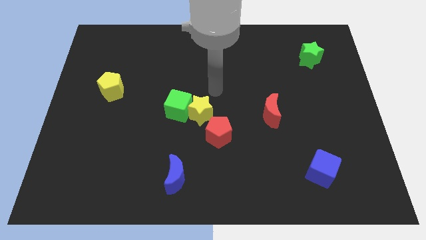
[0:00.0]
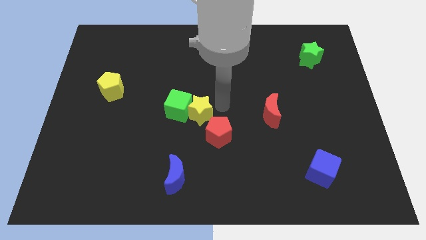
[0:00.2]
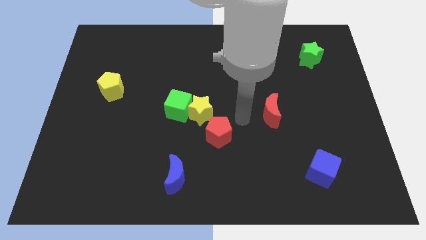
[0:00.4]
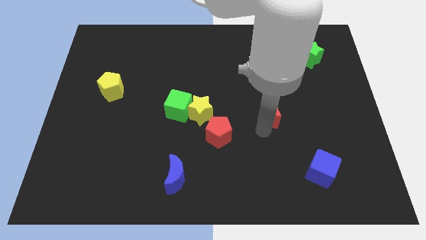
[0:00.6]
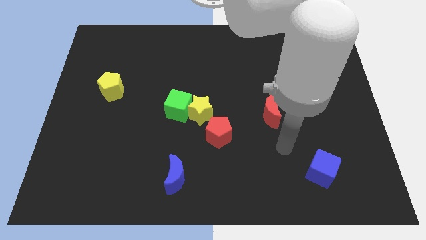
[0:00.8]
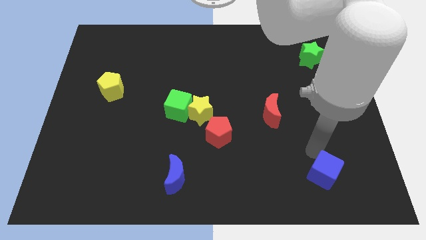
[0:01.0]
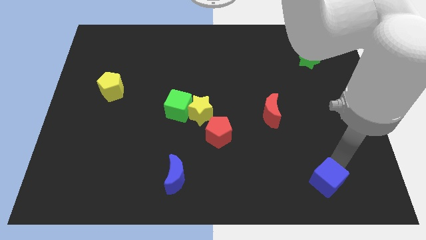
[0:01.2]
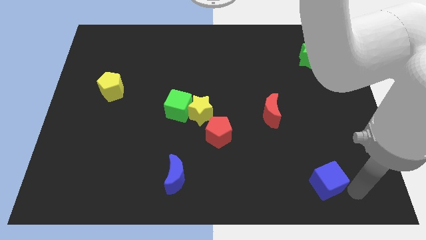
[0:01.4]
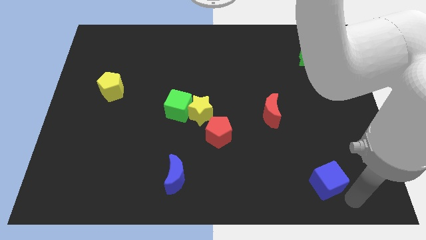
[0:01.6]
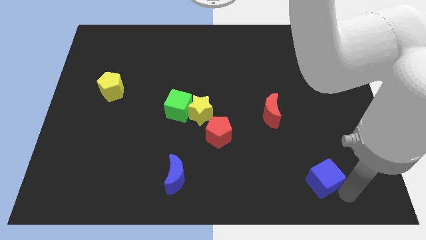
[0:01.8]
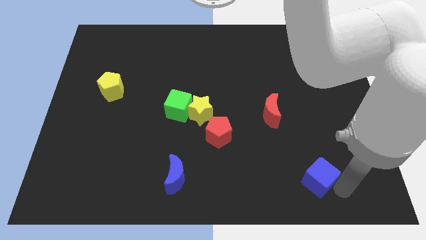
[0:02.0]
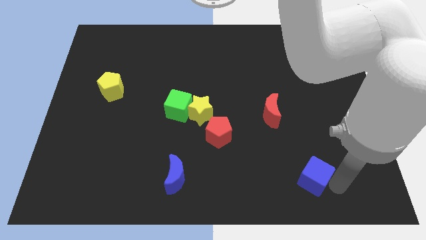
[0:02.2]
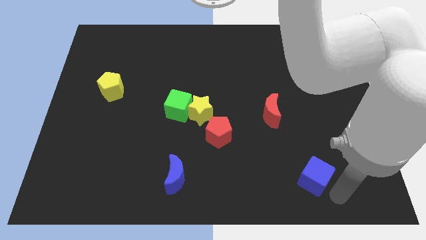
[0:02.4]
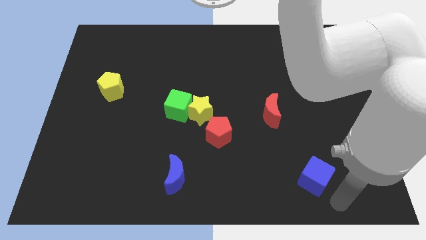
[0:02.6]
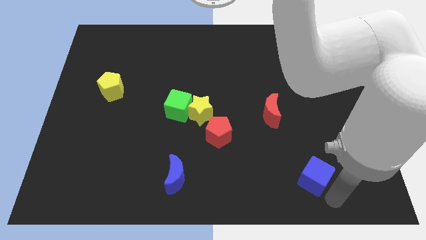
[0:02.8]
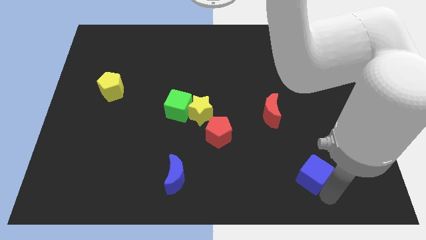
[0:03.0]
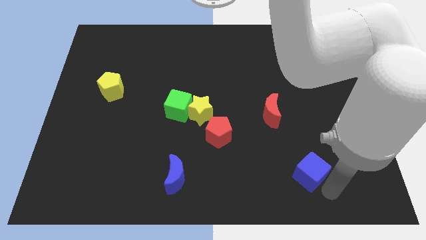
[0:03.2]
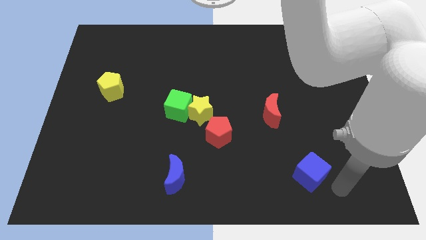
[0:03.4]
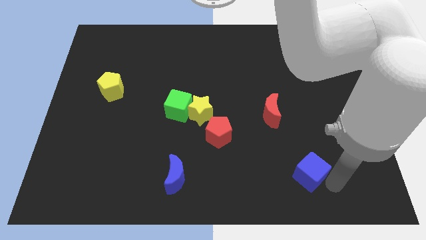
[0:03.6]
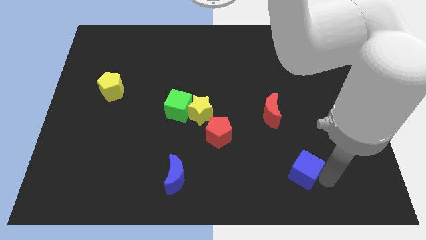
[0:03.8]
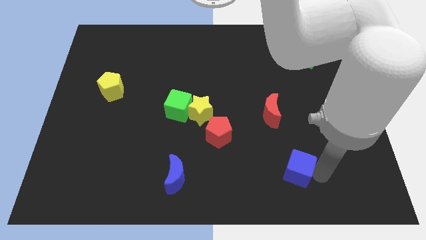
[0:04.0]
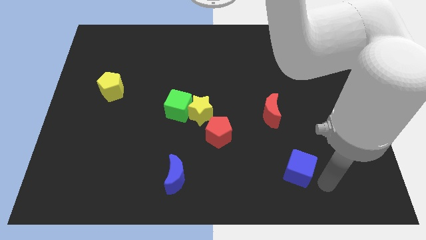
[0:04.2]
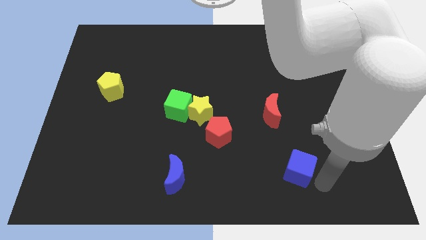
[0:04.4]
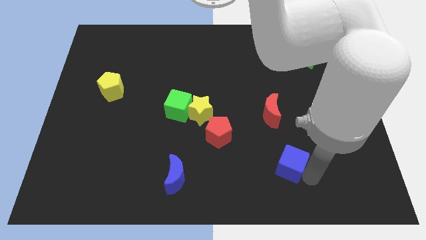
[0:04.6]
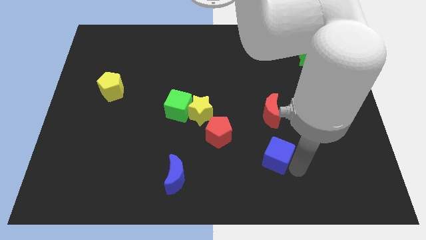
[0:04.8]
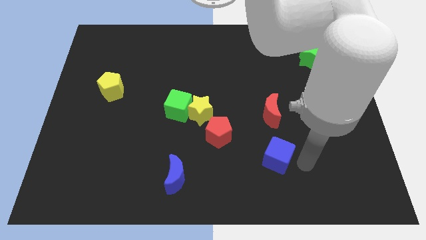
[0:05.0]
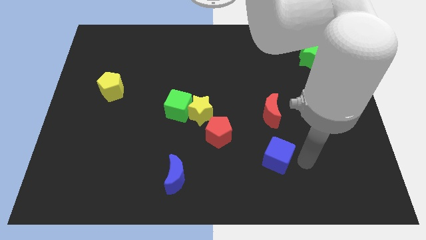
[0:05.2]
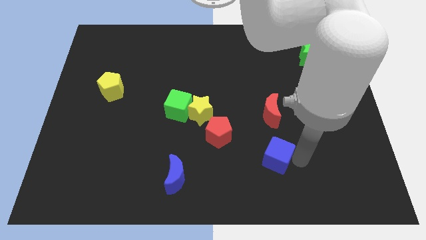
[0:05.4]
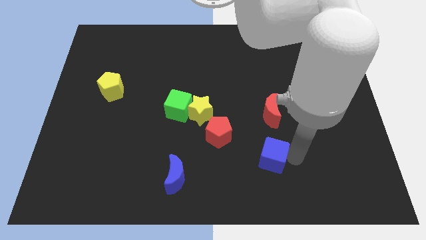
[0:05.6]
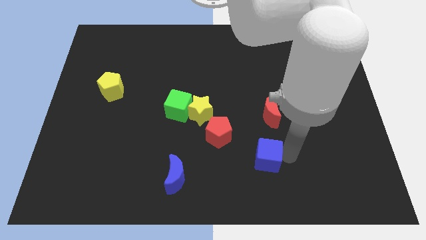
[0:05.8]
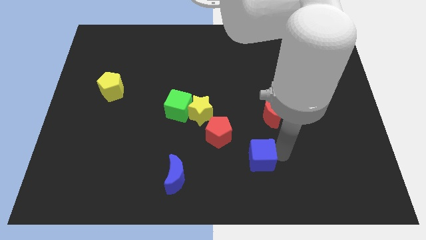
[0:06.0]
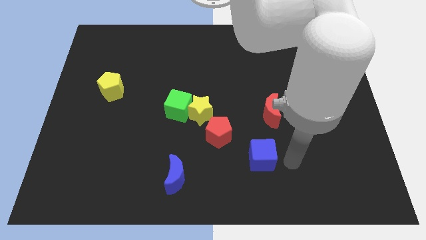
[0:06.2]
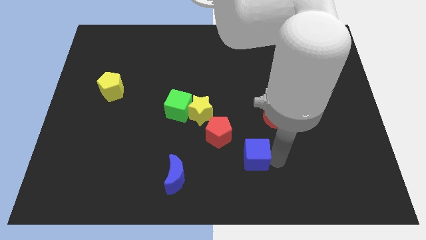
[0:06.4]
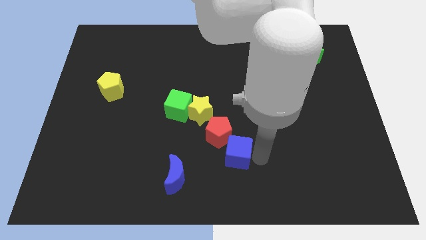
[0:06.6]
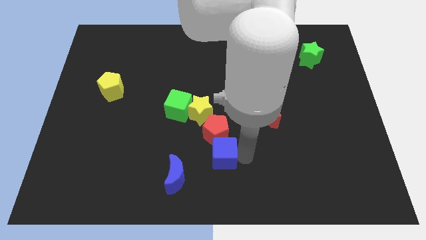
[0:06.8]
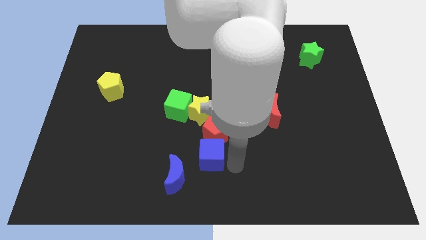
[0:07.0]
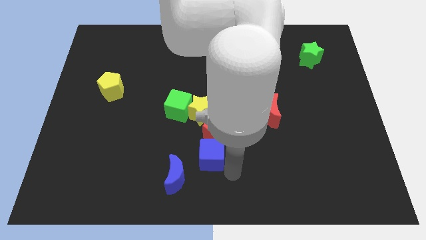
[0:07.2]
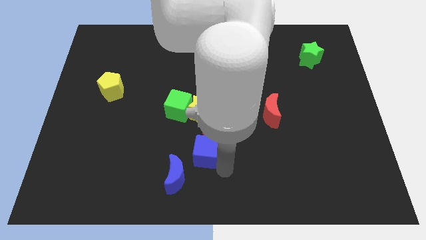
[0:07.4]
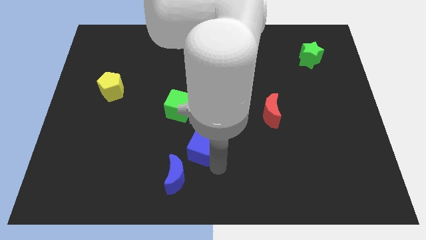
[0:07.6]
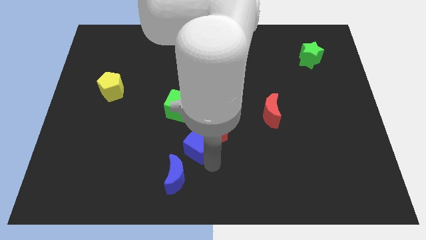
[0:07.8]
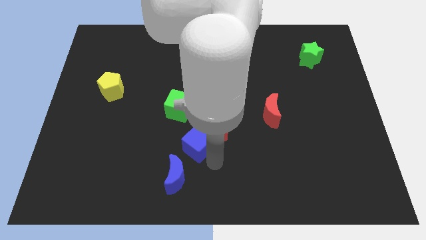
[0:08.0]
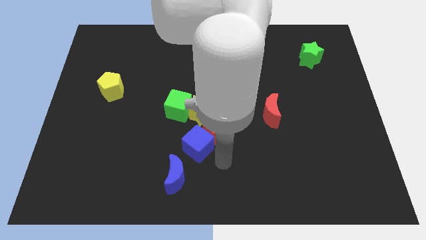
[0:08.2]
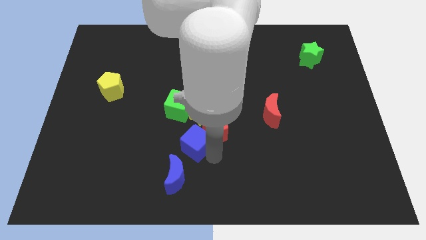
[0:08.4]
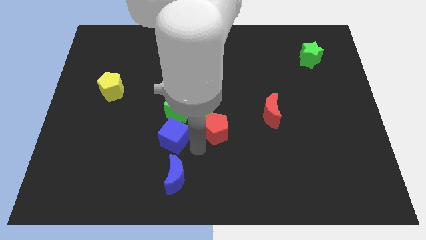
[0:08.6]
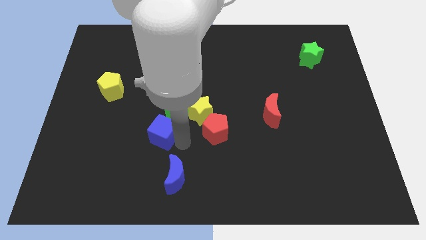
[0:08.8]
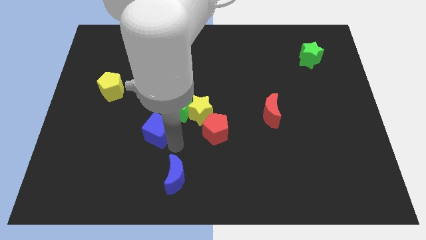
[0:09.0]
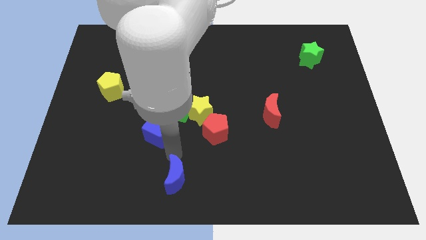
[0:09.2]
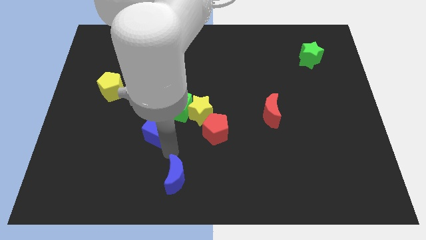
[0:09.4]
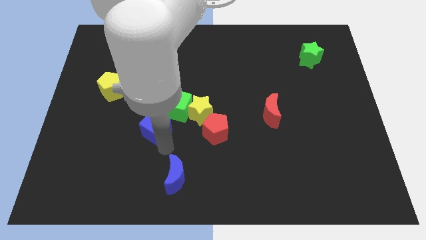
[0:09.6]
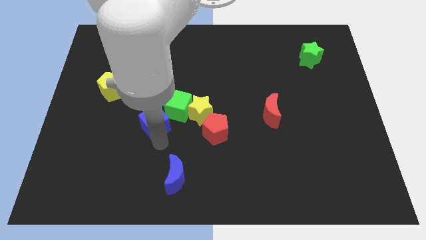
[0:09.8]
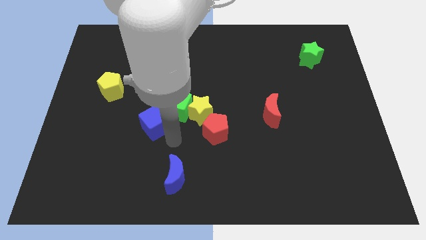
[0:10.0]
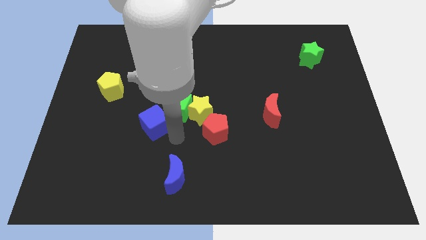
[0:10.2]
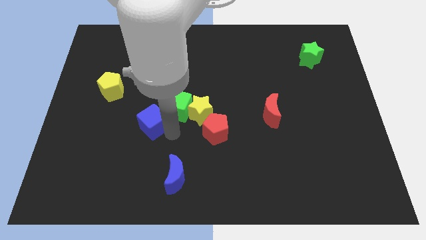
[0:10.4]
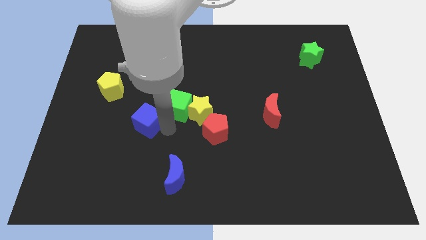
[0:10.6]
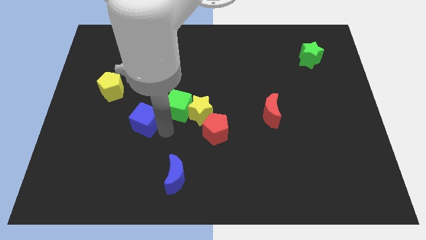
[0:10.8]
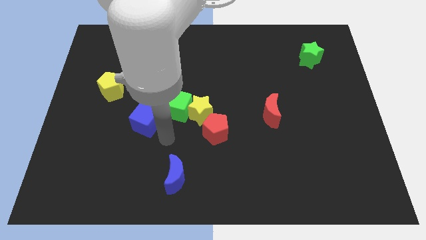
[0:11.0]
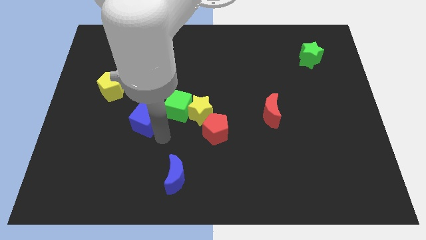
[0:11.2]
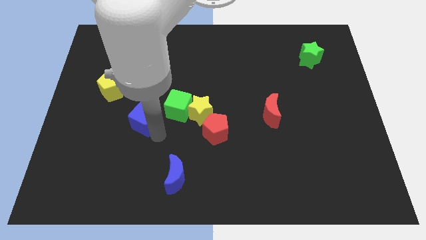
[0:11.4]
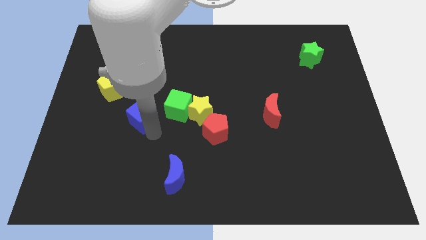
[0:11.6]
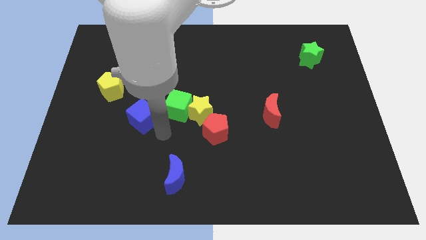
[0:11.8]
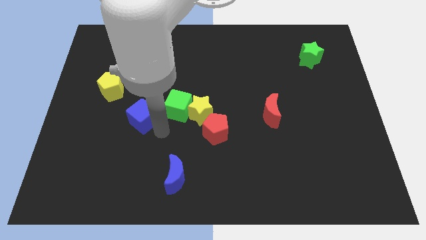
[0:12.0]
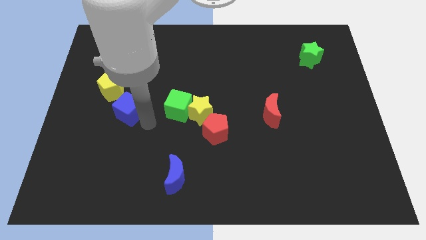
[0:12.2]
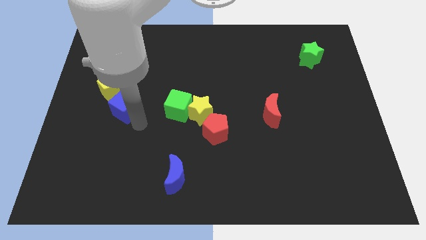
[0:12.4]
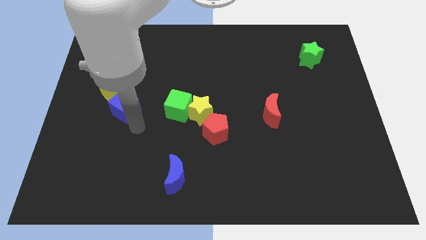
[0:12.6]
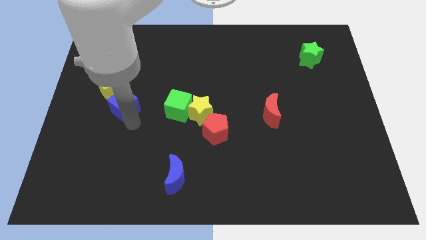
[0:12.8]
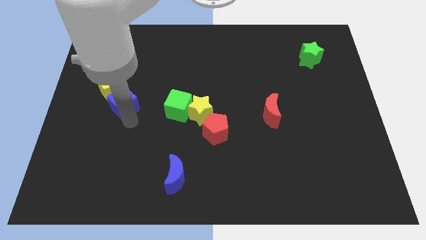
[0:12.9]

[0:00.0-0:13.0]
move the blue cube next to the yellow pentagon

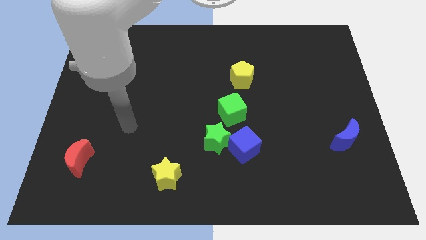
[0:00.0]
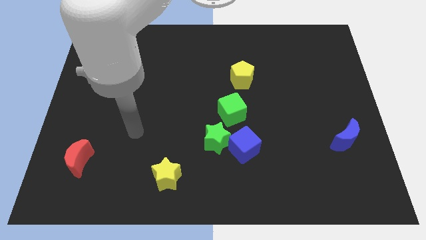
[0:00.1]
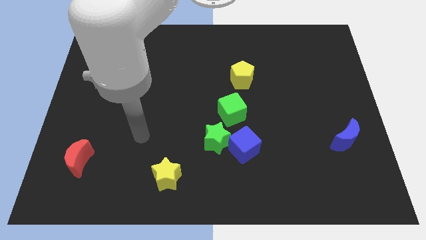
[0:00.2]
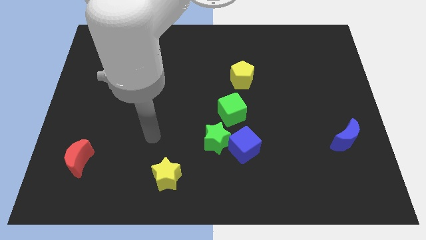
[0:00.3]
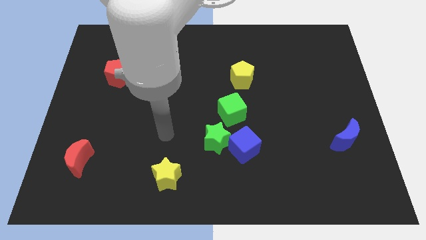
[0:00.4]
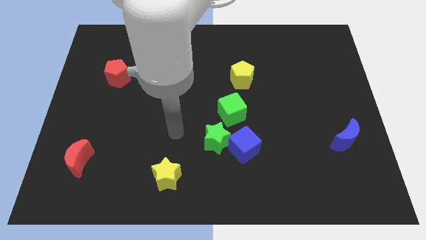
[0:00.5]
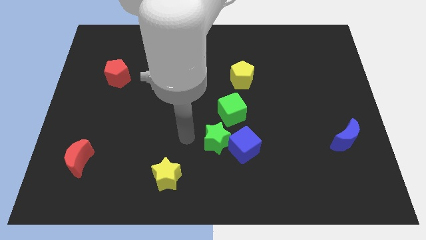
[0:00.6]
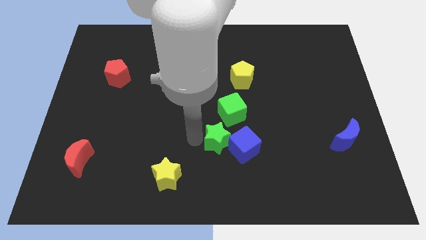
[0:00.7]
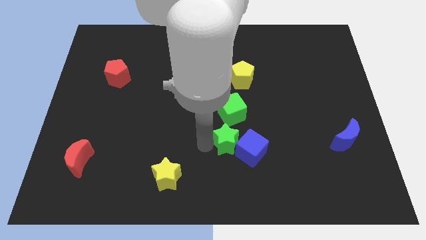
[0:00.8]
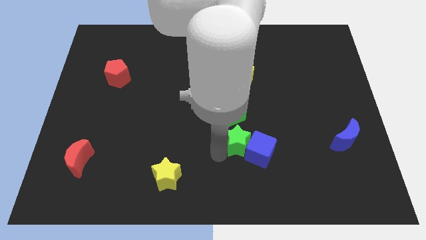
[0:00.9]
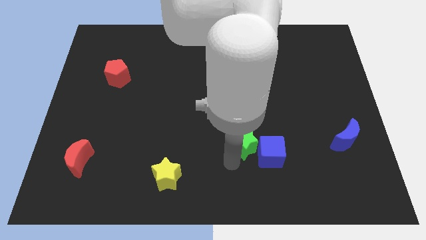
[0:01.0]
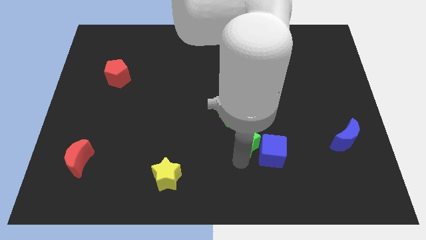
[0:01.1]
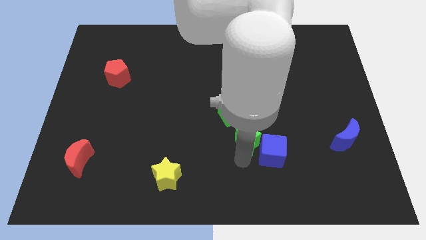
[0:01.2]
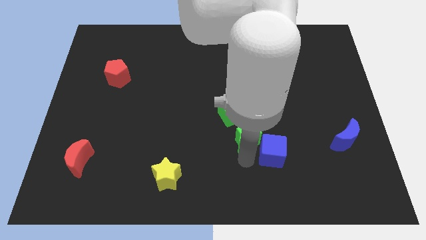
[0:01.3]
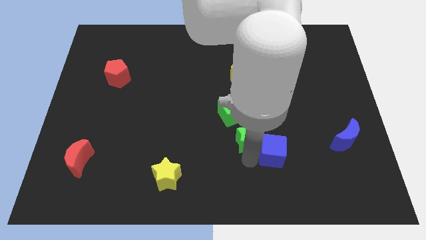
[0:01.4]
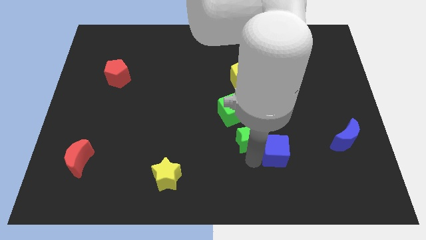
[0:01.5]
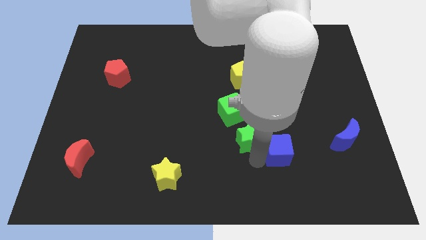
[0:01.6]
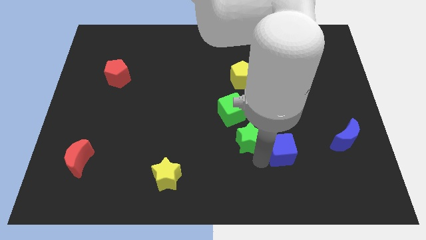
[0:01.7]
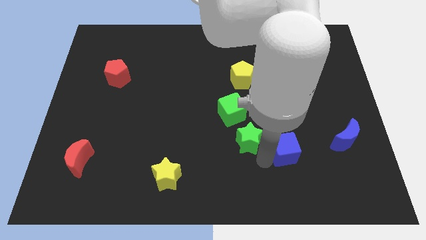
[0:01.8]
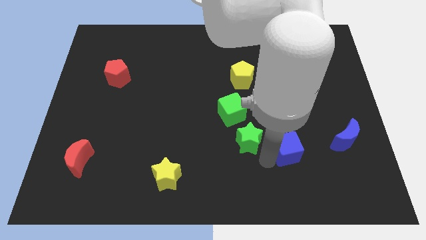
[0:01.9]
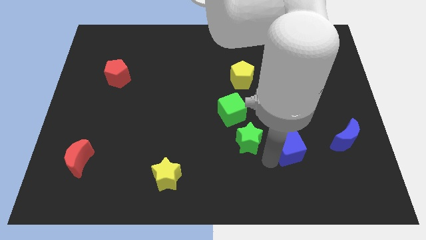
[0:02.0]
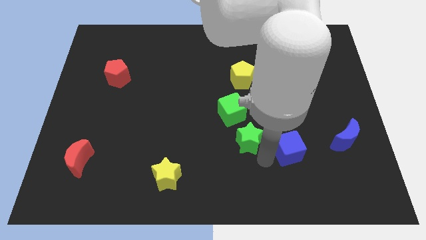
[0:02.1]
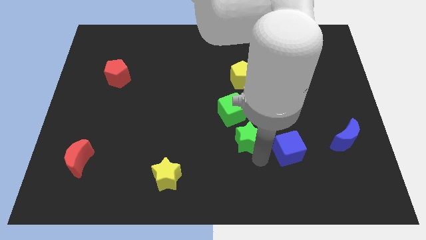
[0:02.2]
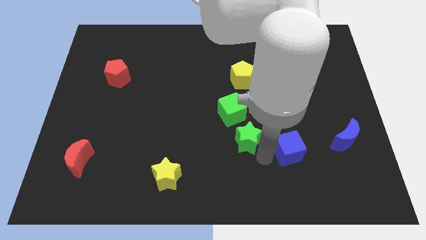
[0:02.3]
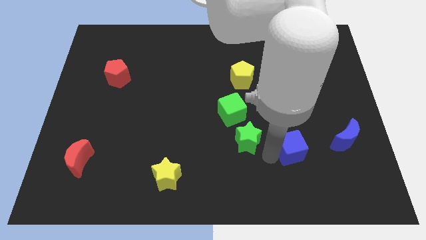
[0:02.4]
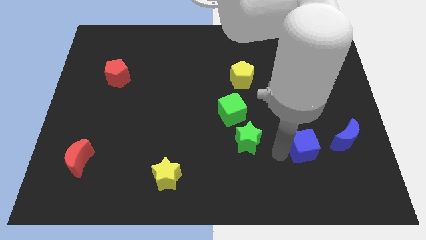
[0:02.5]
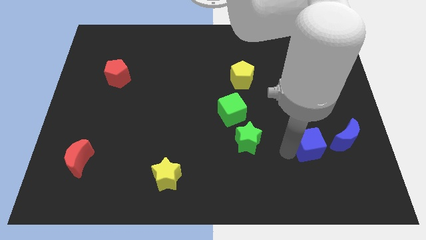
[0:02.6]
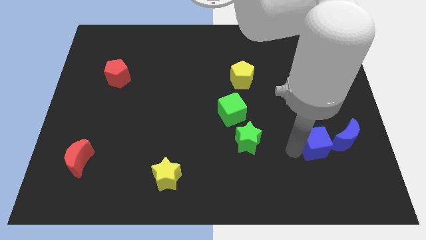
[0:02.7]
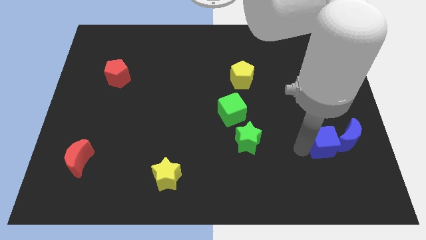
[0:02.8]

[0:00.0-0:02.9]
push the blue cube close to the blue moon
